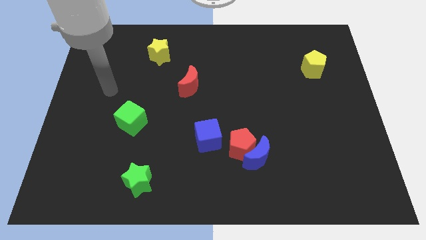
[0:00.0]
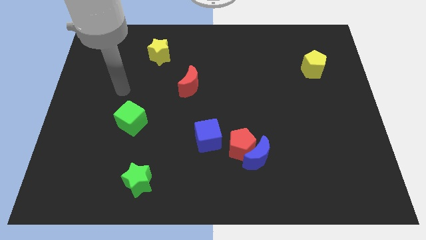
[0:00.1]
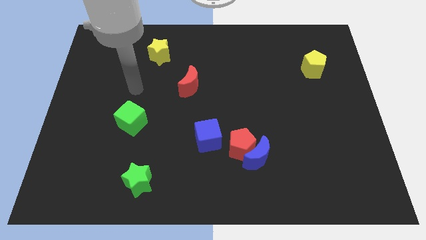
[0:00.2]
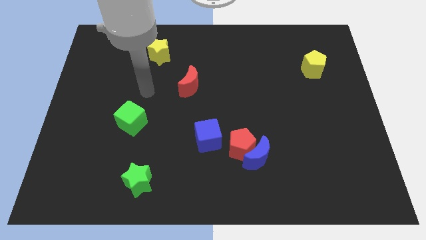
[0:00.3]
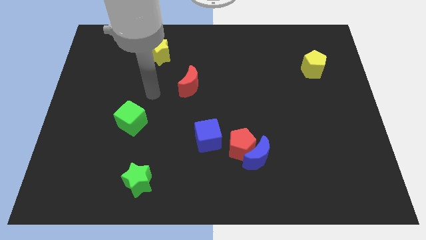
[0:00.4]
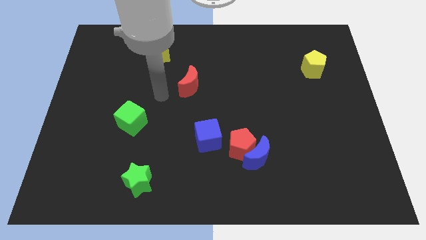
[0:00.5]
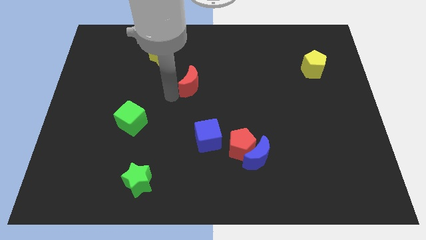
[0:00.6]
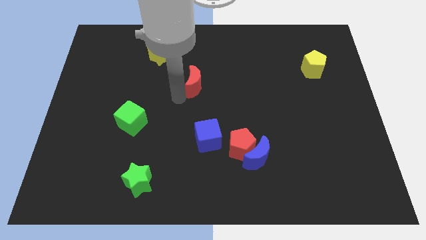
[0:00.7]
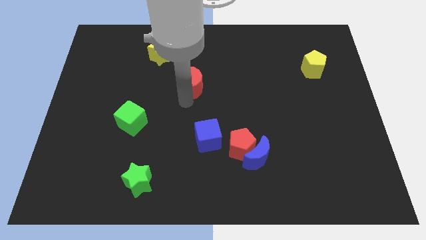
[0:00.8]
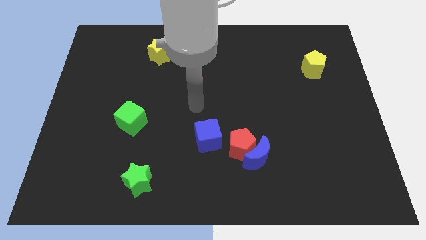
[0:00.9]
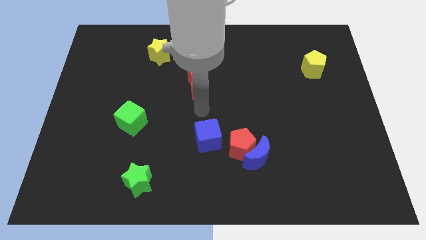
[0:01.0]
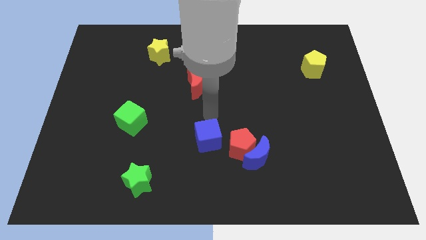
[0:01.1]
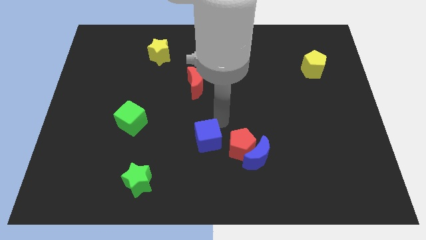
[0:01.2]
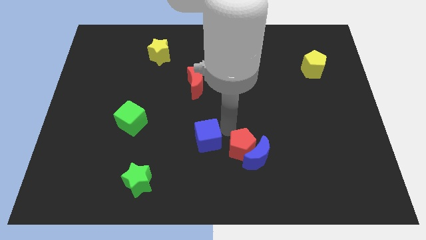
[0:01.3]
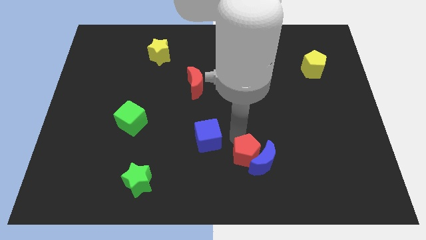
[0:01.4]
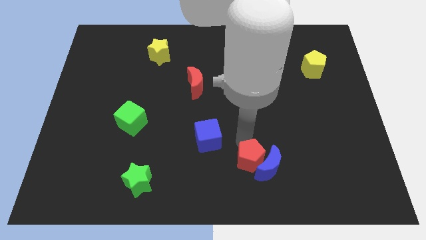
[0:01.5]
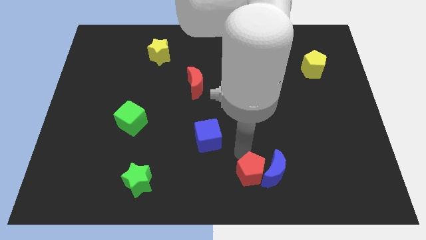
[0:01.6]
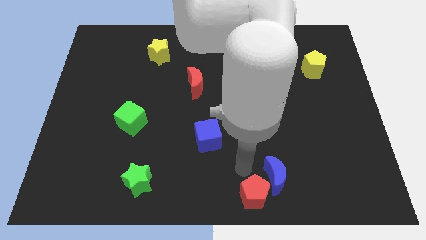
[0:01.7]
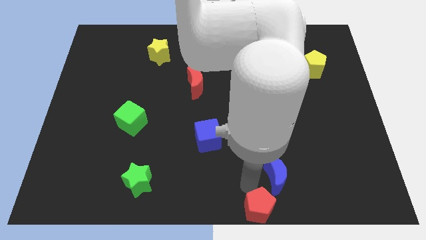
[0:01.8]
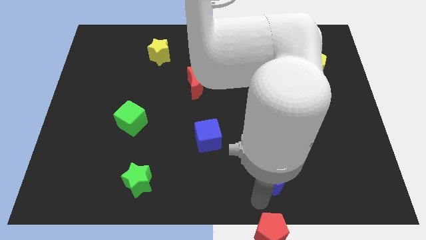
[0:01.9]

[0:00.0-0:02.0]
pull the blue moon apart from the red pentagon

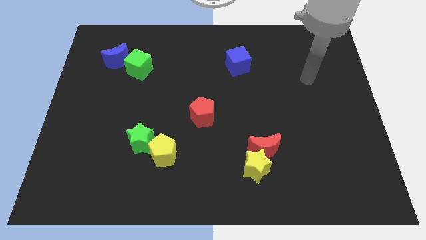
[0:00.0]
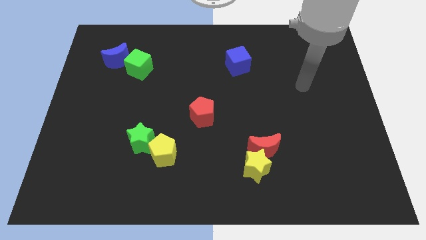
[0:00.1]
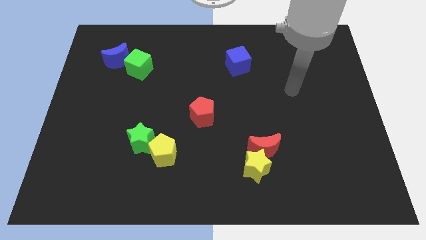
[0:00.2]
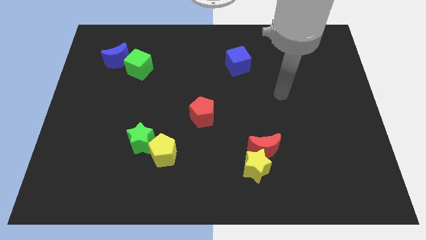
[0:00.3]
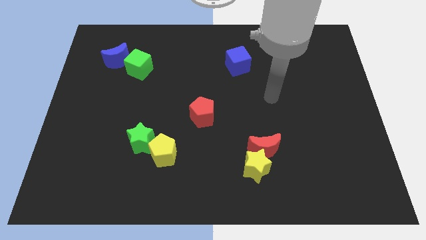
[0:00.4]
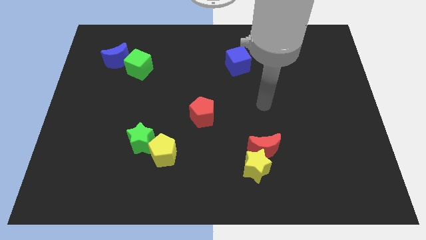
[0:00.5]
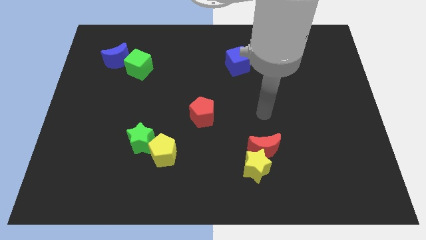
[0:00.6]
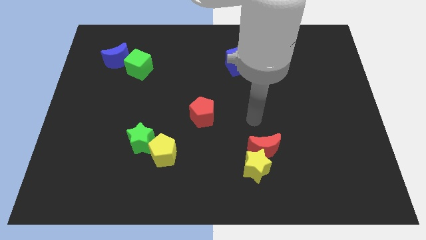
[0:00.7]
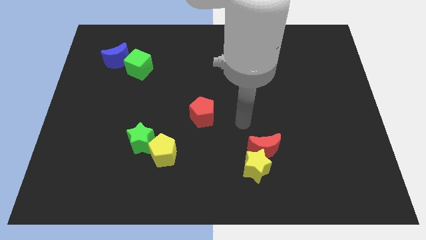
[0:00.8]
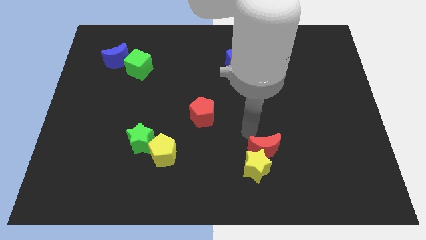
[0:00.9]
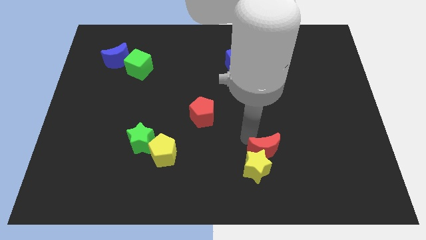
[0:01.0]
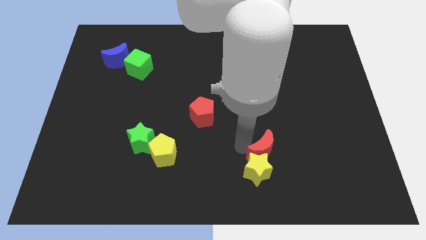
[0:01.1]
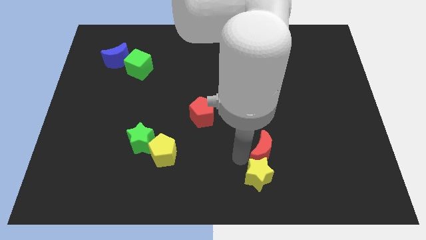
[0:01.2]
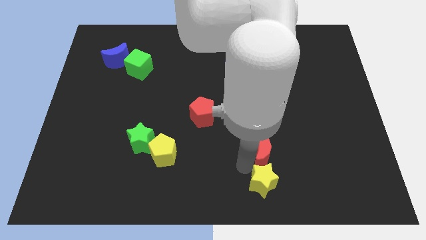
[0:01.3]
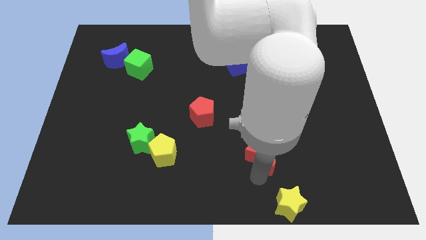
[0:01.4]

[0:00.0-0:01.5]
move the red moon away from the yellow star

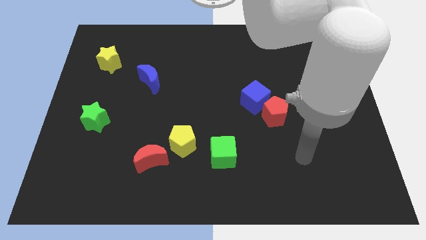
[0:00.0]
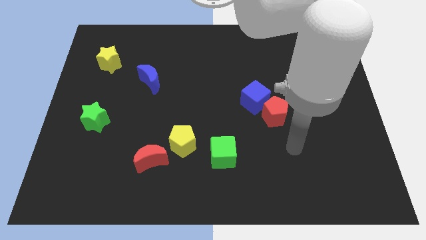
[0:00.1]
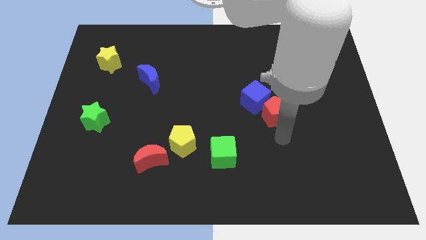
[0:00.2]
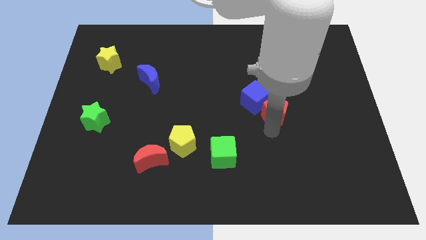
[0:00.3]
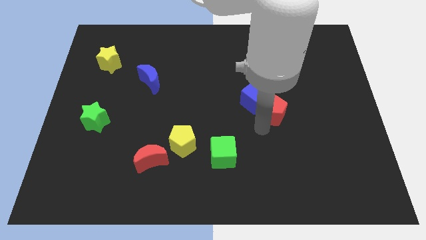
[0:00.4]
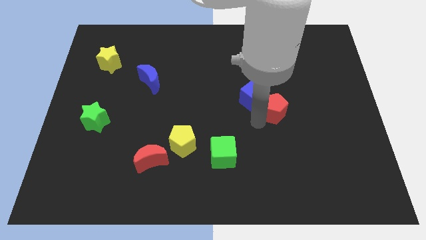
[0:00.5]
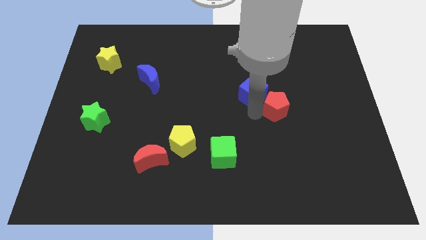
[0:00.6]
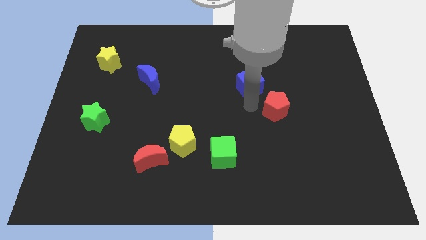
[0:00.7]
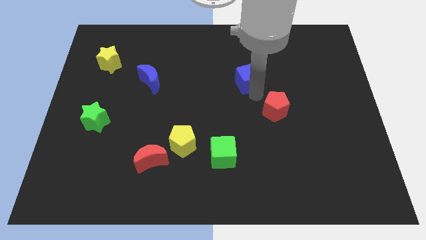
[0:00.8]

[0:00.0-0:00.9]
move the red pentagon away from the blue cube

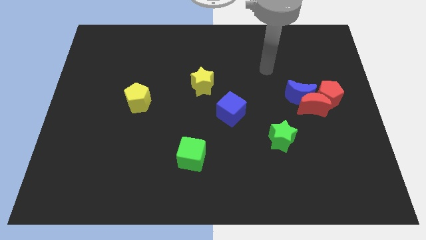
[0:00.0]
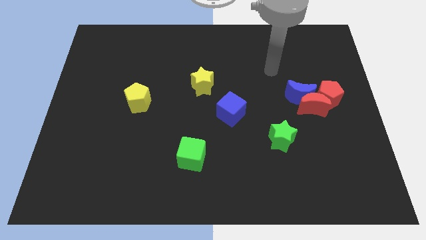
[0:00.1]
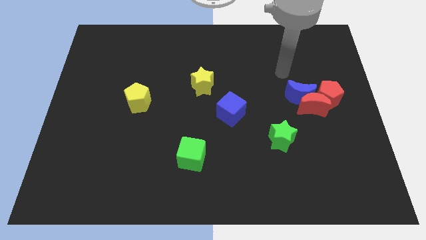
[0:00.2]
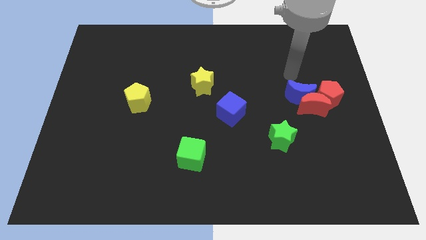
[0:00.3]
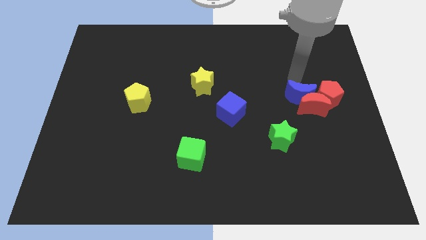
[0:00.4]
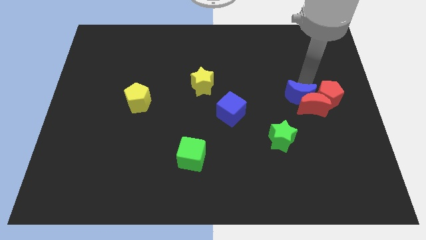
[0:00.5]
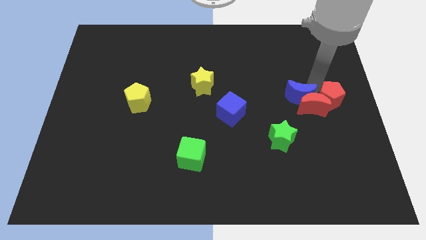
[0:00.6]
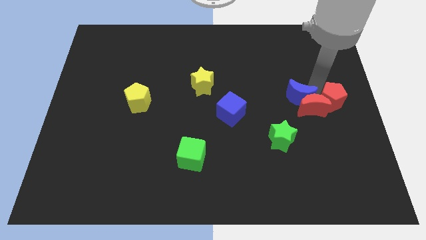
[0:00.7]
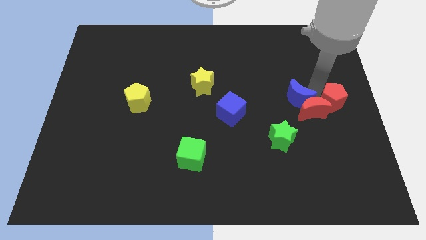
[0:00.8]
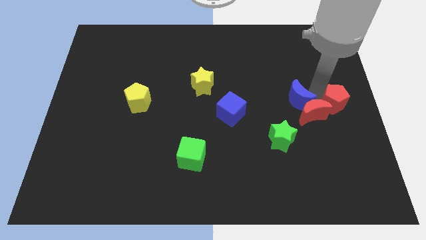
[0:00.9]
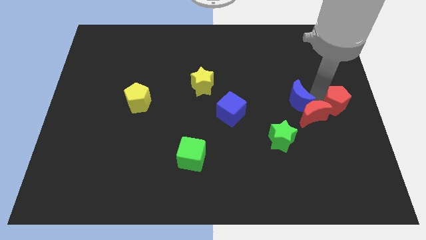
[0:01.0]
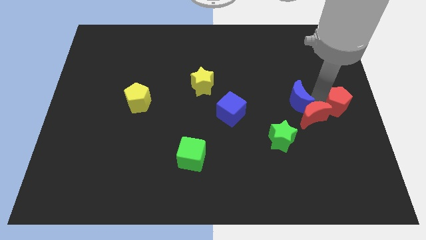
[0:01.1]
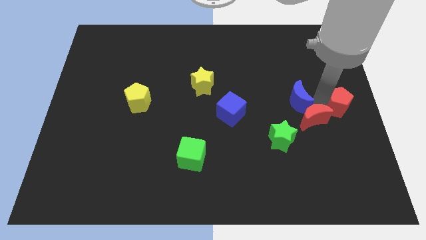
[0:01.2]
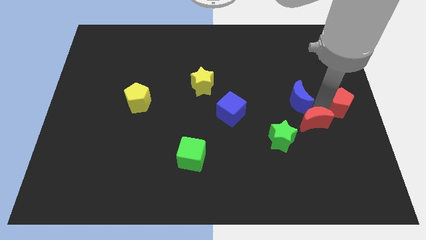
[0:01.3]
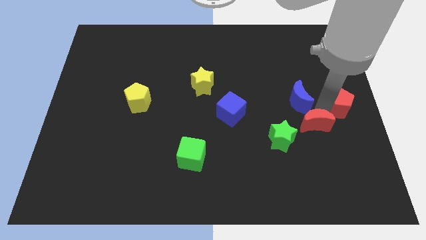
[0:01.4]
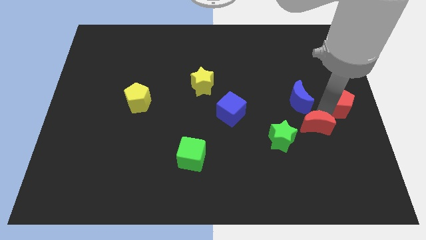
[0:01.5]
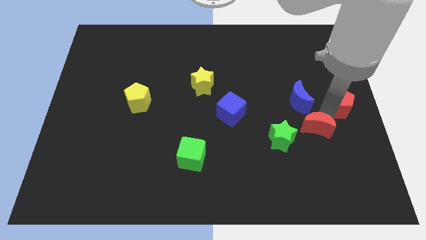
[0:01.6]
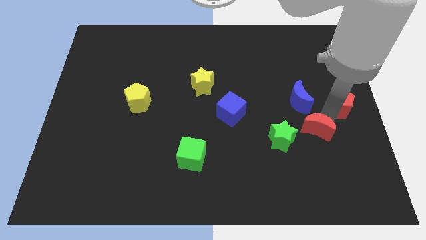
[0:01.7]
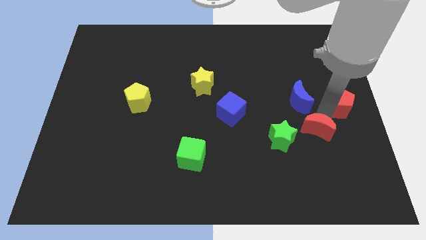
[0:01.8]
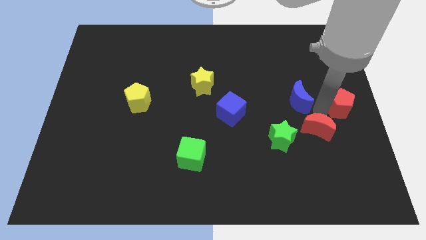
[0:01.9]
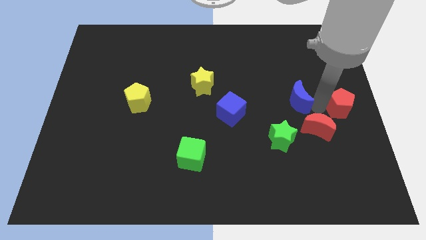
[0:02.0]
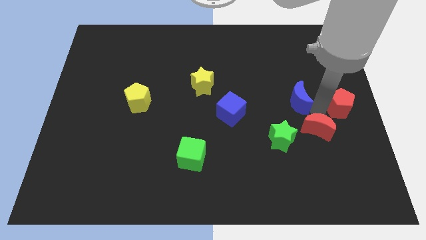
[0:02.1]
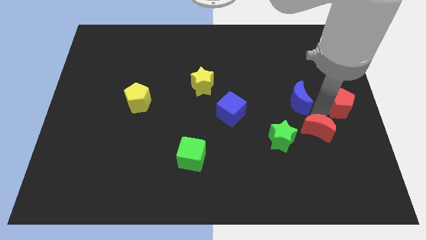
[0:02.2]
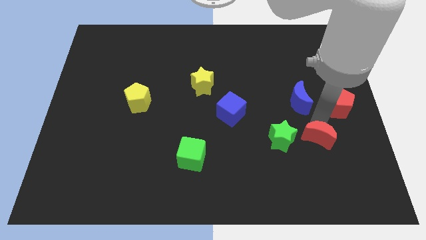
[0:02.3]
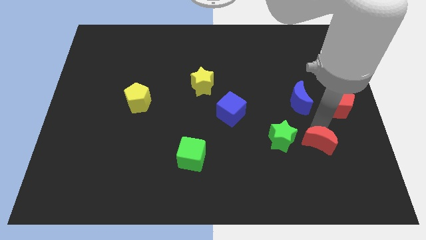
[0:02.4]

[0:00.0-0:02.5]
move the red moon away from the blue moon and red pentagon

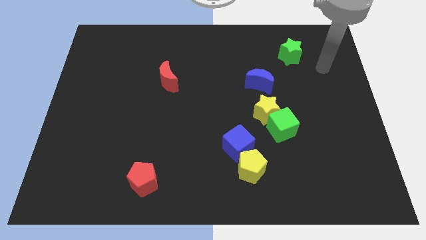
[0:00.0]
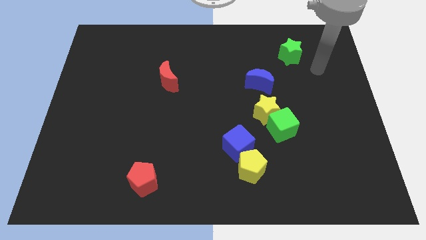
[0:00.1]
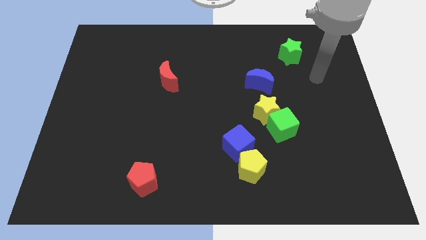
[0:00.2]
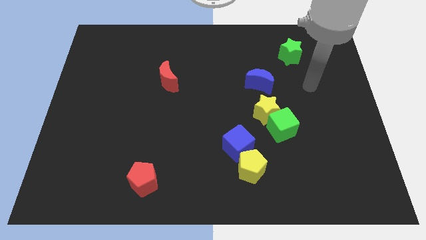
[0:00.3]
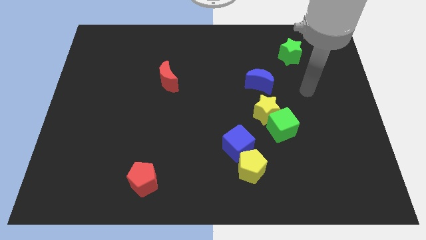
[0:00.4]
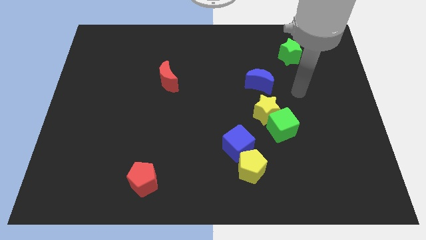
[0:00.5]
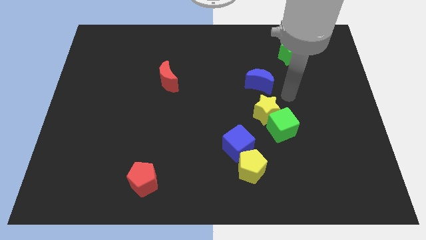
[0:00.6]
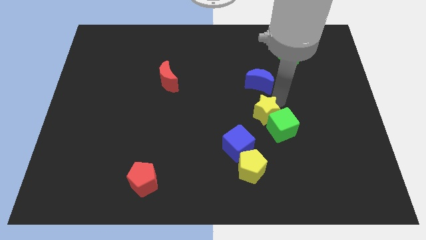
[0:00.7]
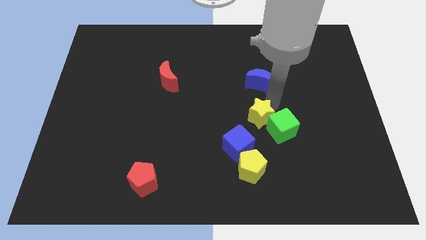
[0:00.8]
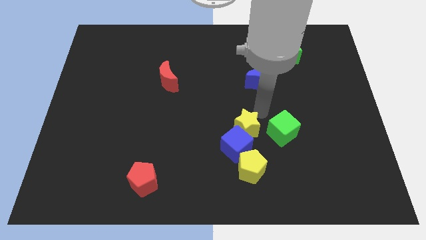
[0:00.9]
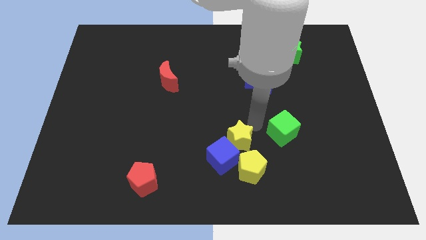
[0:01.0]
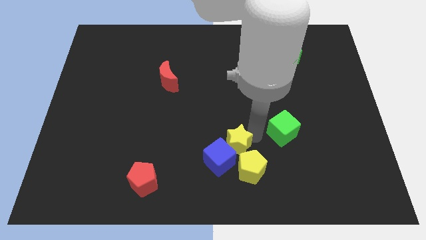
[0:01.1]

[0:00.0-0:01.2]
move the green cube away from the yellow star

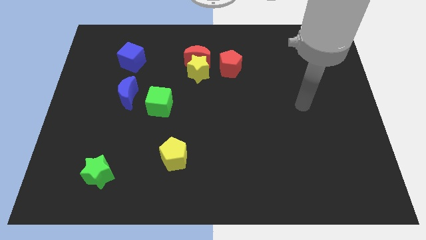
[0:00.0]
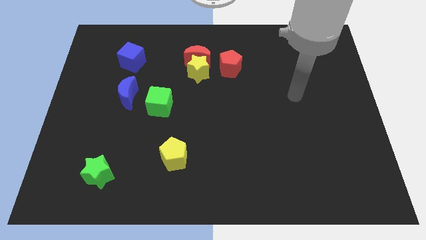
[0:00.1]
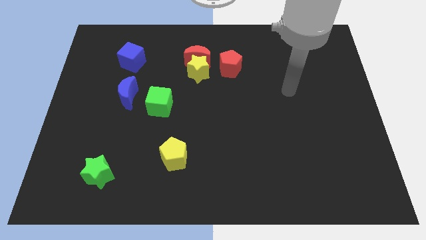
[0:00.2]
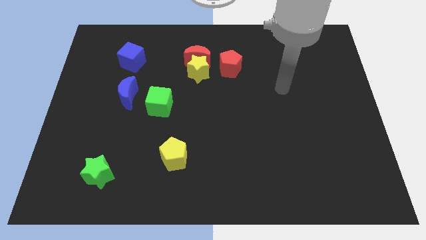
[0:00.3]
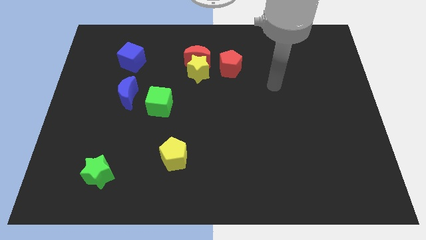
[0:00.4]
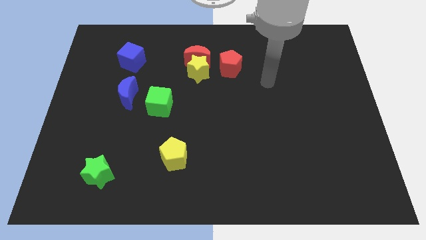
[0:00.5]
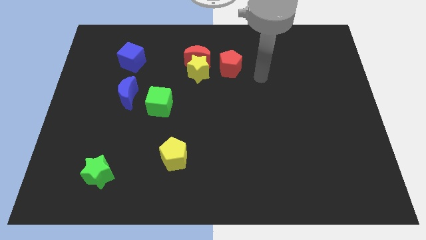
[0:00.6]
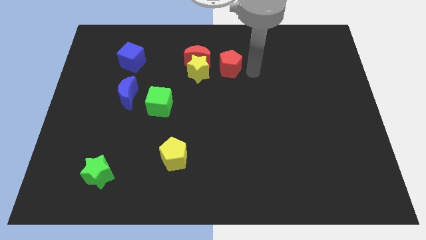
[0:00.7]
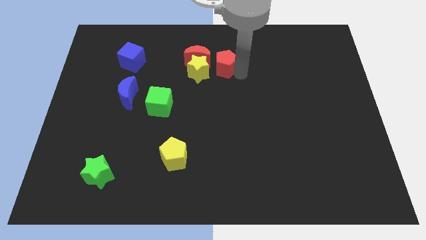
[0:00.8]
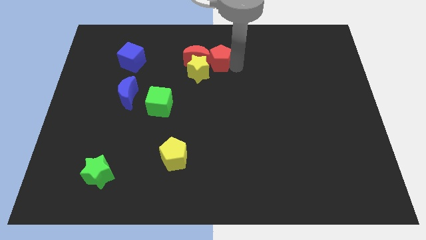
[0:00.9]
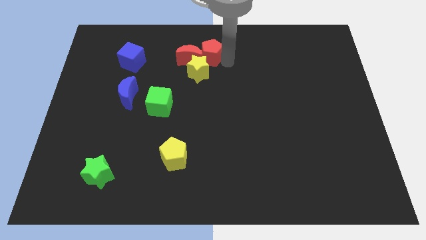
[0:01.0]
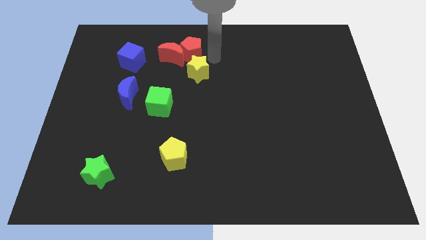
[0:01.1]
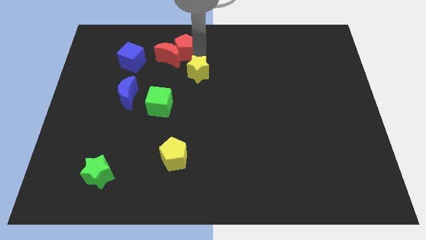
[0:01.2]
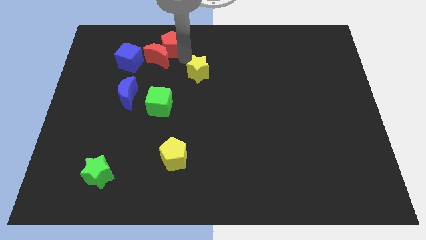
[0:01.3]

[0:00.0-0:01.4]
separate the yellow star from the red moon and red pentagon
